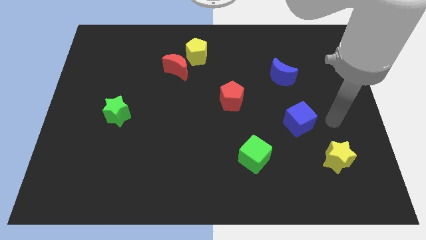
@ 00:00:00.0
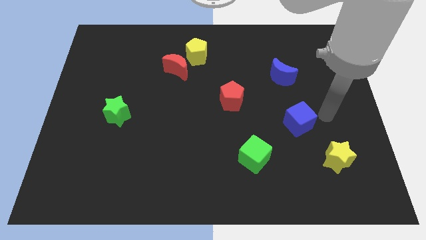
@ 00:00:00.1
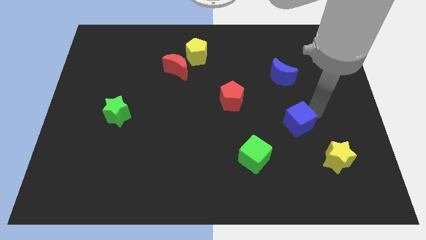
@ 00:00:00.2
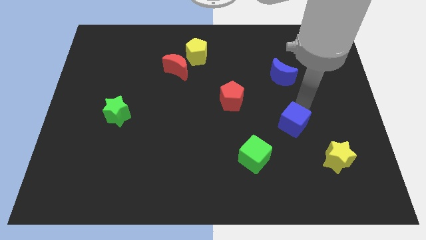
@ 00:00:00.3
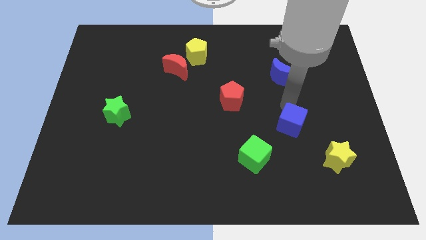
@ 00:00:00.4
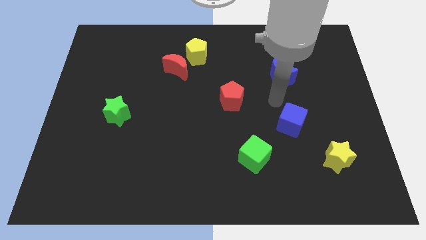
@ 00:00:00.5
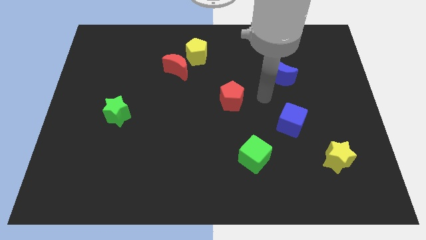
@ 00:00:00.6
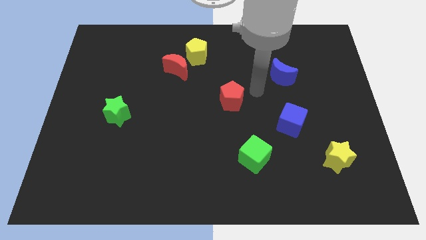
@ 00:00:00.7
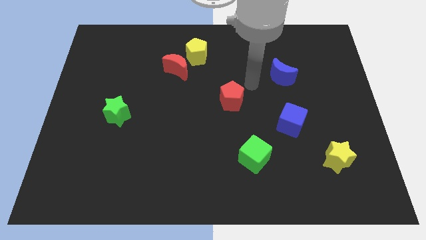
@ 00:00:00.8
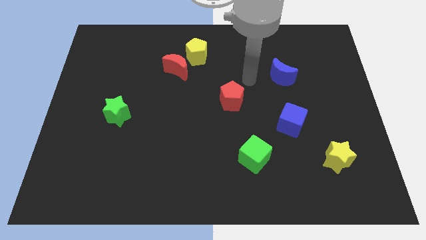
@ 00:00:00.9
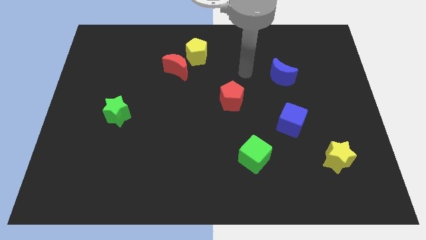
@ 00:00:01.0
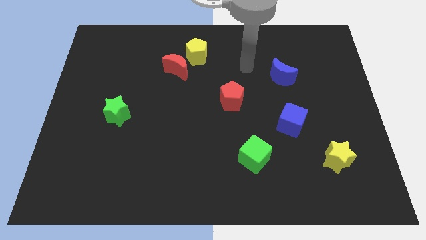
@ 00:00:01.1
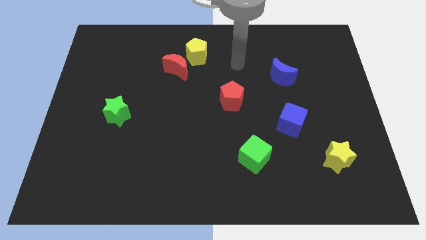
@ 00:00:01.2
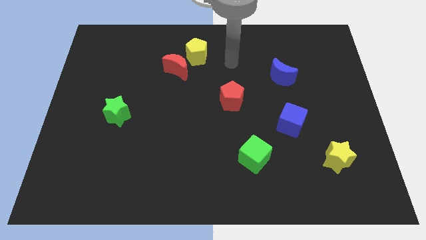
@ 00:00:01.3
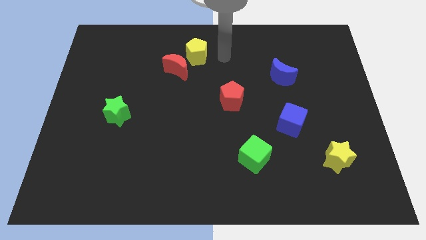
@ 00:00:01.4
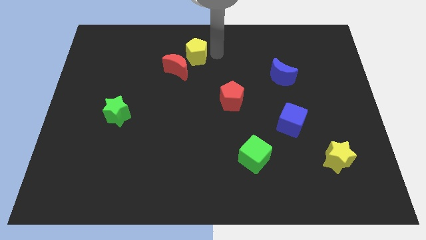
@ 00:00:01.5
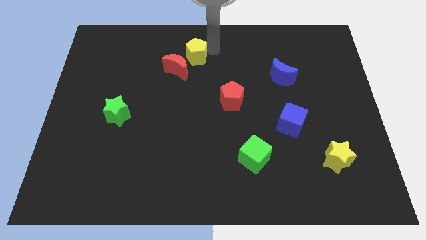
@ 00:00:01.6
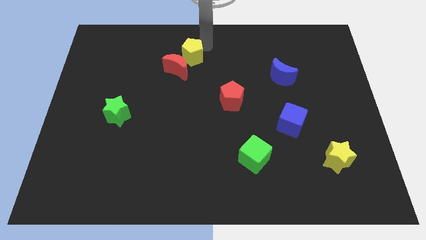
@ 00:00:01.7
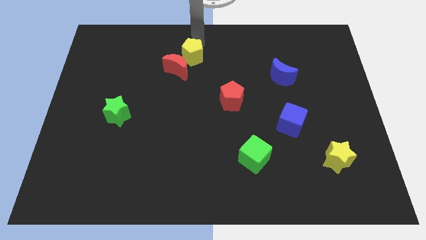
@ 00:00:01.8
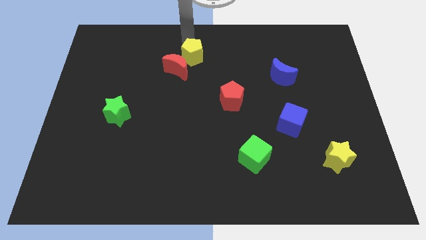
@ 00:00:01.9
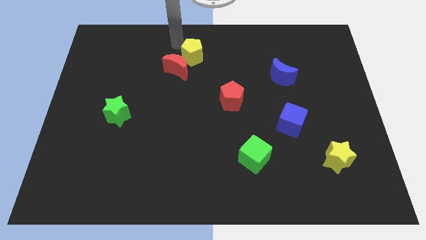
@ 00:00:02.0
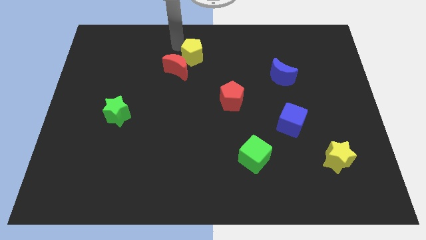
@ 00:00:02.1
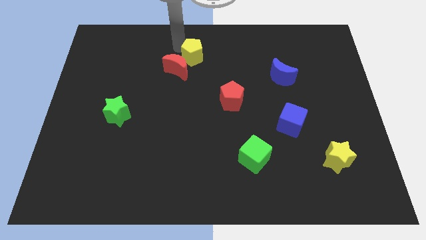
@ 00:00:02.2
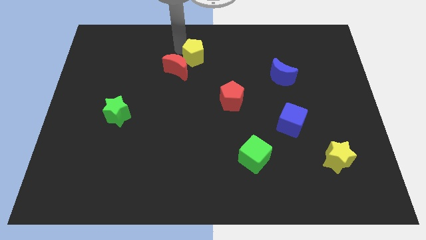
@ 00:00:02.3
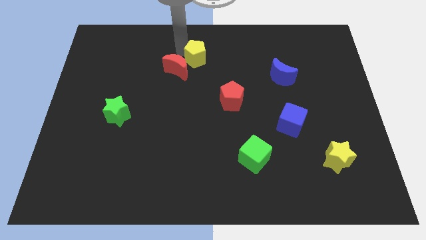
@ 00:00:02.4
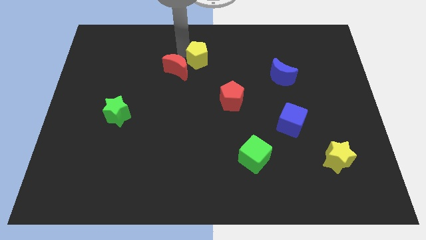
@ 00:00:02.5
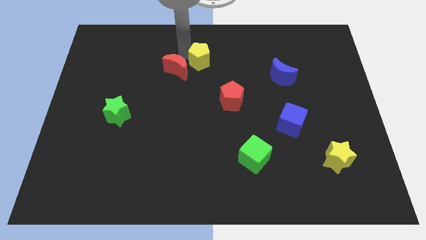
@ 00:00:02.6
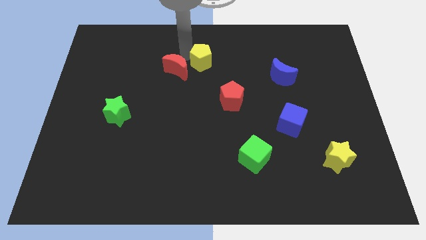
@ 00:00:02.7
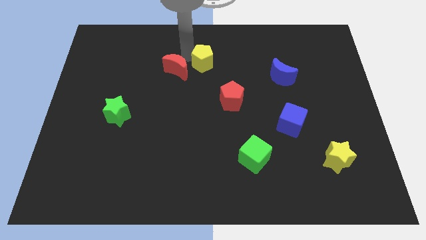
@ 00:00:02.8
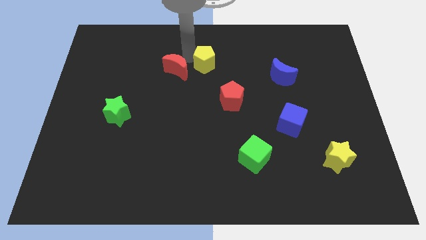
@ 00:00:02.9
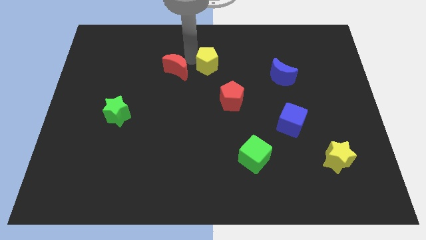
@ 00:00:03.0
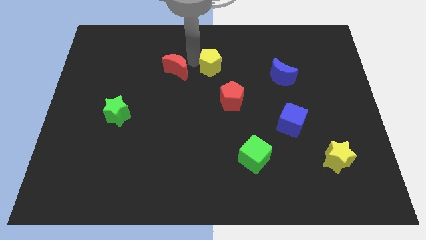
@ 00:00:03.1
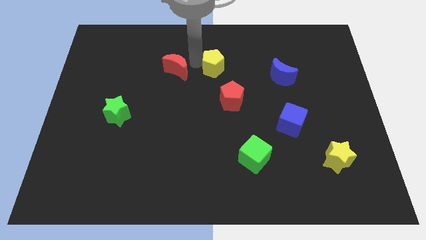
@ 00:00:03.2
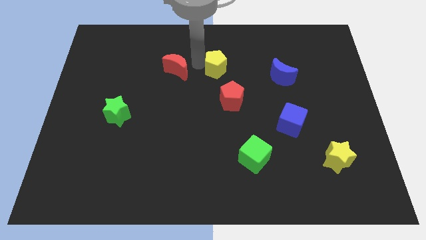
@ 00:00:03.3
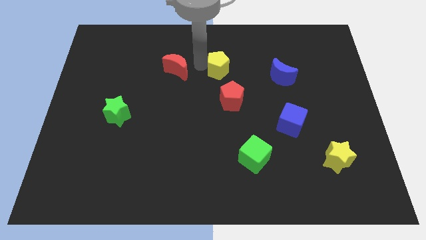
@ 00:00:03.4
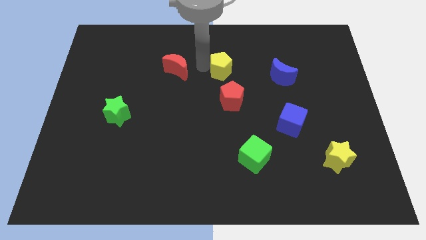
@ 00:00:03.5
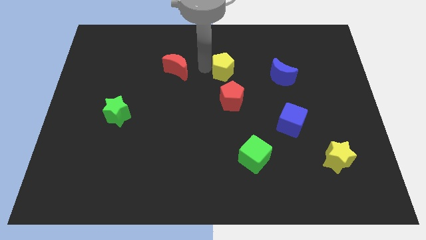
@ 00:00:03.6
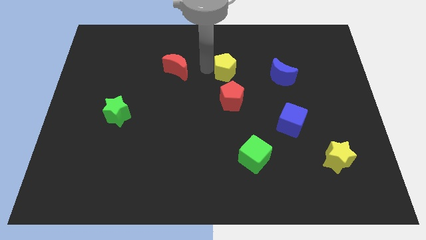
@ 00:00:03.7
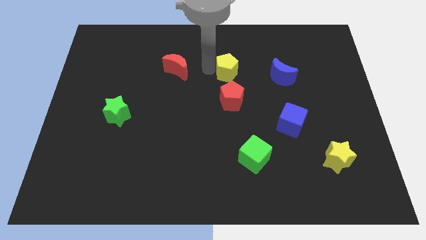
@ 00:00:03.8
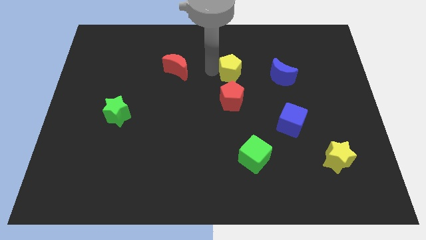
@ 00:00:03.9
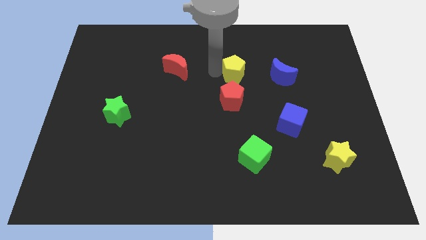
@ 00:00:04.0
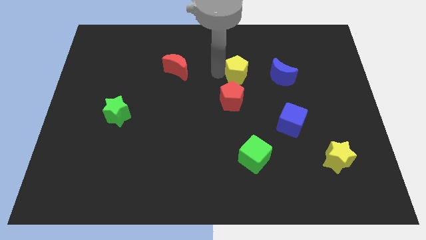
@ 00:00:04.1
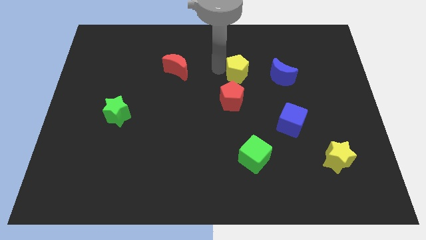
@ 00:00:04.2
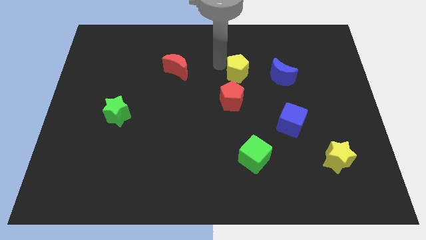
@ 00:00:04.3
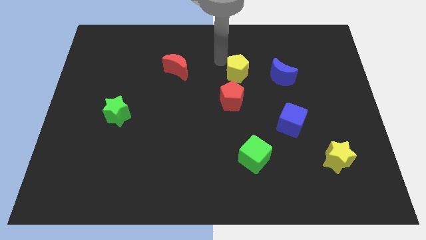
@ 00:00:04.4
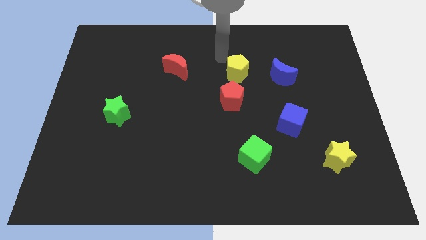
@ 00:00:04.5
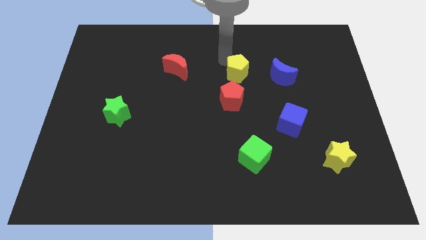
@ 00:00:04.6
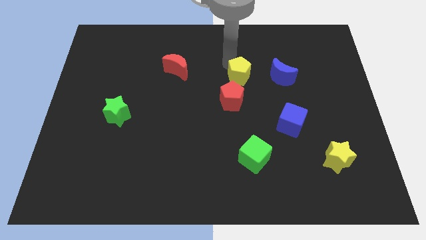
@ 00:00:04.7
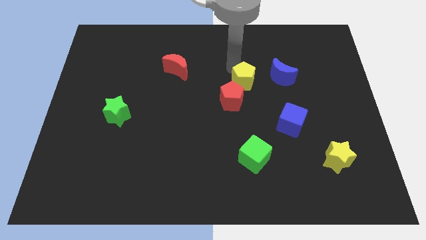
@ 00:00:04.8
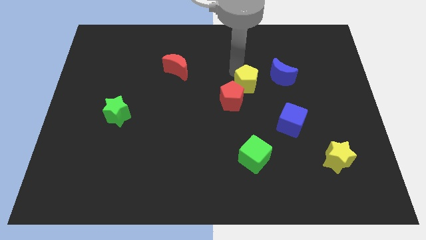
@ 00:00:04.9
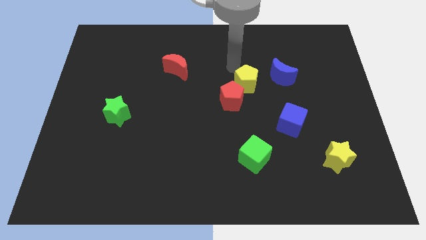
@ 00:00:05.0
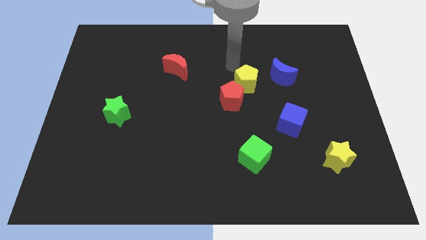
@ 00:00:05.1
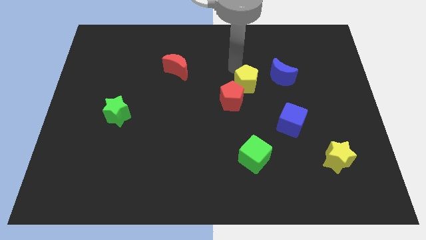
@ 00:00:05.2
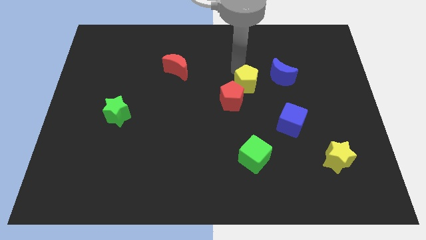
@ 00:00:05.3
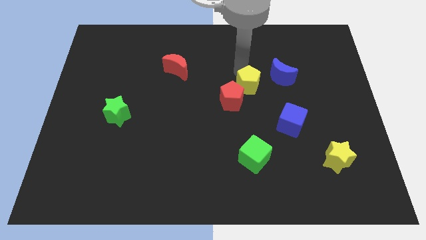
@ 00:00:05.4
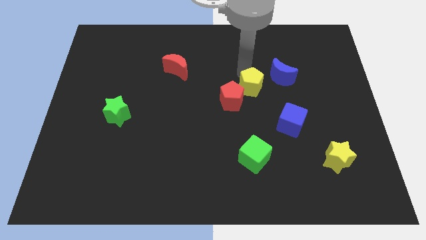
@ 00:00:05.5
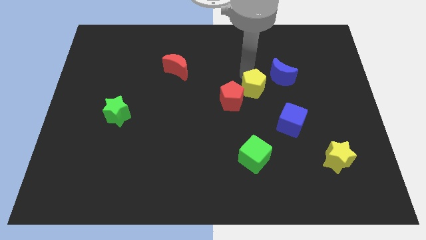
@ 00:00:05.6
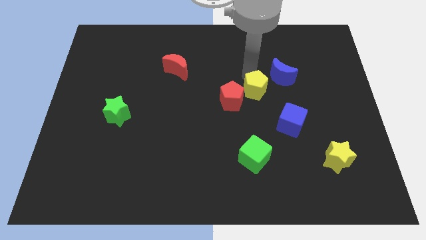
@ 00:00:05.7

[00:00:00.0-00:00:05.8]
put the yellow pentagon to the top left side of the blue cube

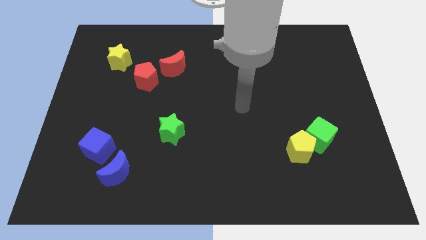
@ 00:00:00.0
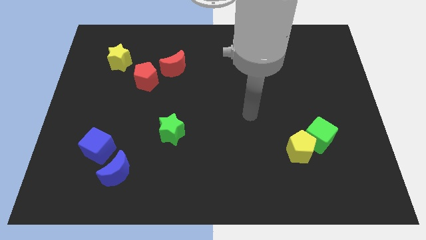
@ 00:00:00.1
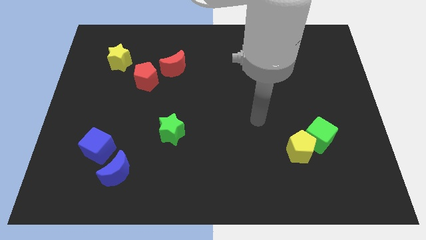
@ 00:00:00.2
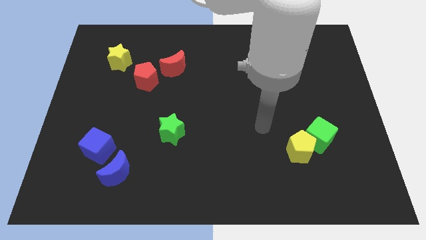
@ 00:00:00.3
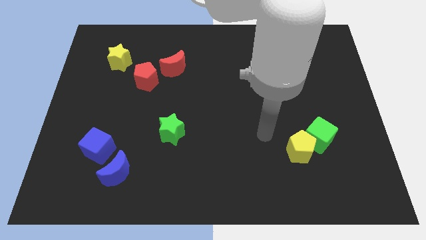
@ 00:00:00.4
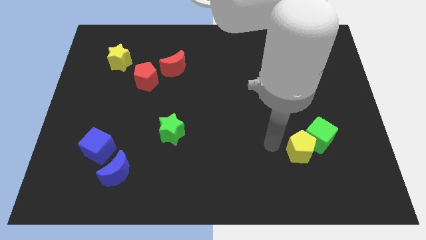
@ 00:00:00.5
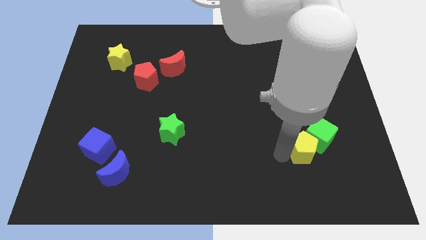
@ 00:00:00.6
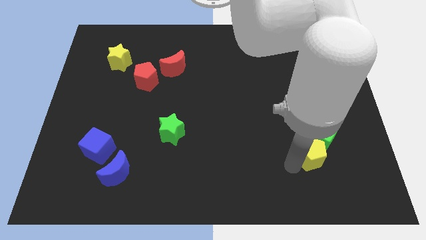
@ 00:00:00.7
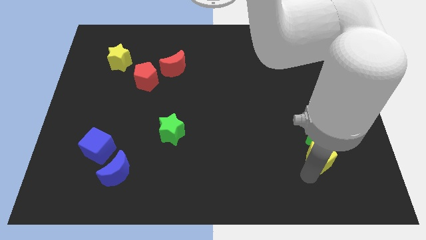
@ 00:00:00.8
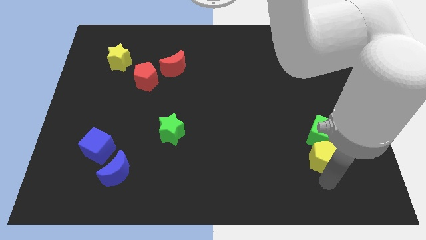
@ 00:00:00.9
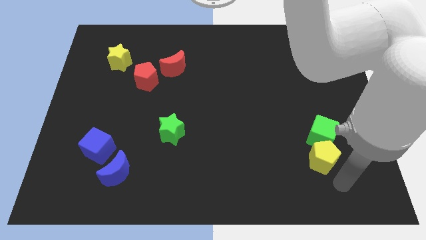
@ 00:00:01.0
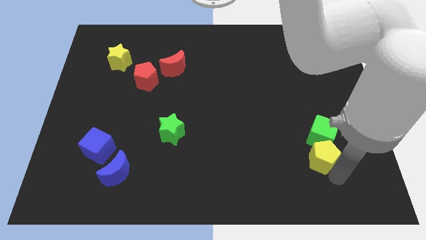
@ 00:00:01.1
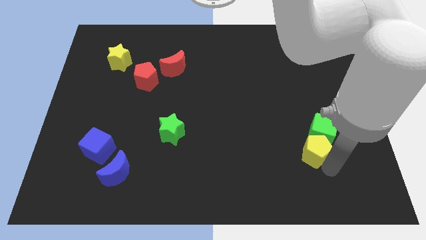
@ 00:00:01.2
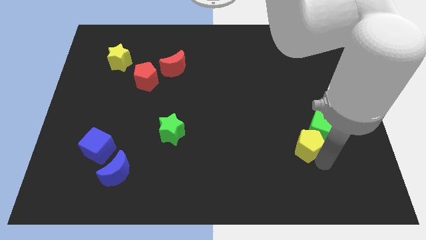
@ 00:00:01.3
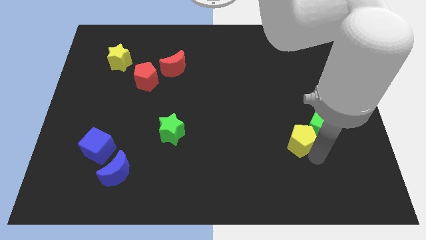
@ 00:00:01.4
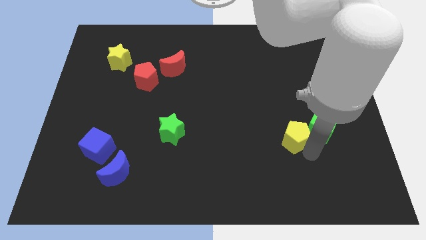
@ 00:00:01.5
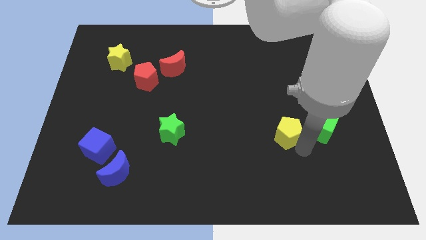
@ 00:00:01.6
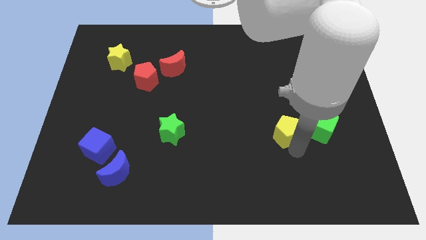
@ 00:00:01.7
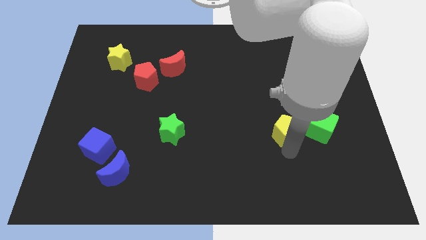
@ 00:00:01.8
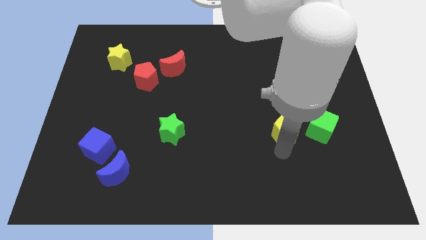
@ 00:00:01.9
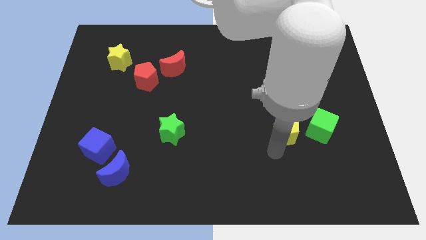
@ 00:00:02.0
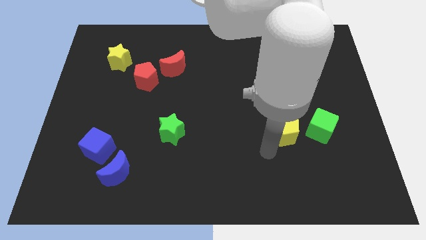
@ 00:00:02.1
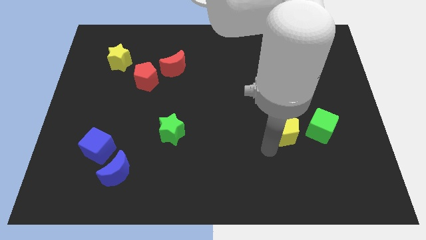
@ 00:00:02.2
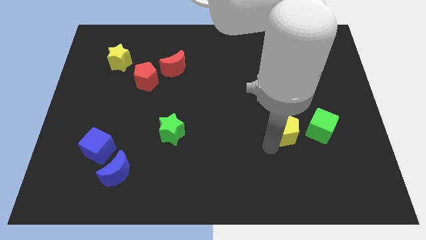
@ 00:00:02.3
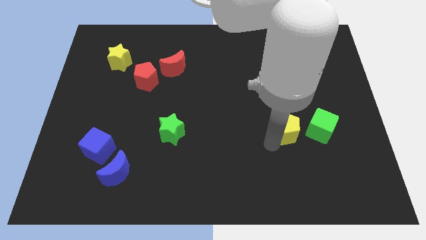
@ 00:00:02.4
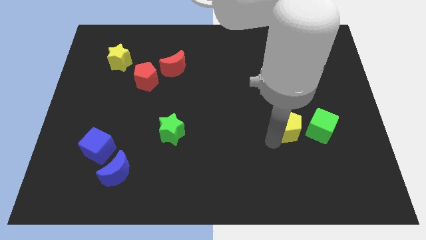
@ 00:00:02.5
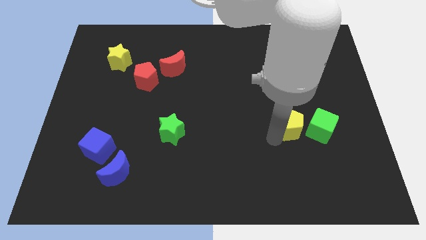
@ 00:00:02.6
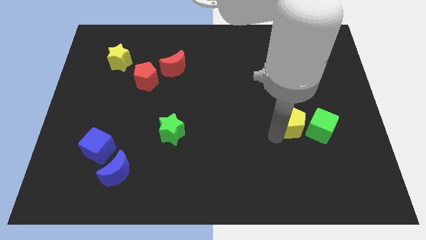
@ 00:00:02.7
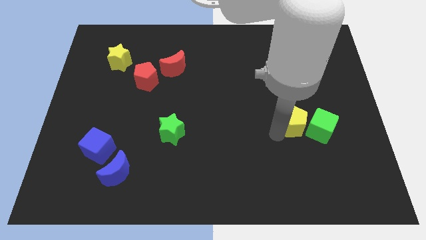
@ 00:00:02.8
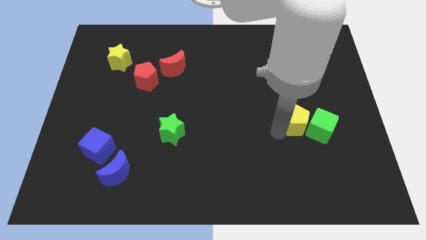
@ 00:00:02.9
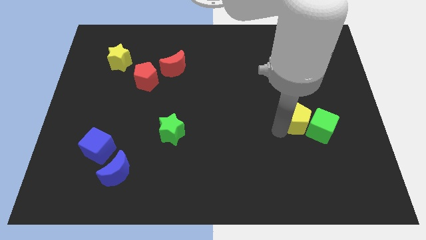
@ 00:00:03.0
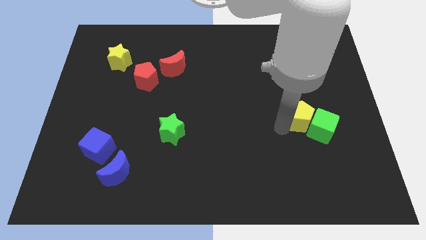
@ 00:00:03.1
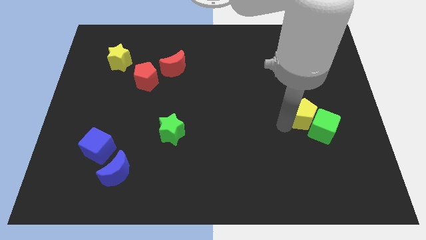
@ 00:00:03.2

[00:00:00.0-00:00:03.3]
slide the yellow pentagon to the top of the green cube
